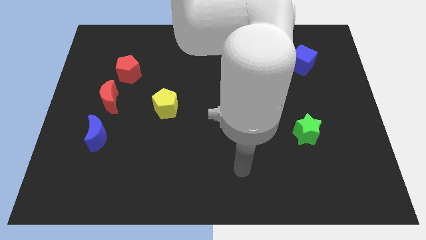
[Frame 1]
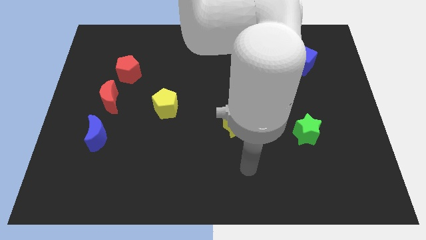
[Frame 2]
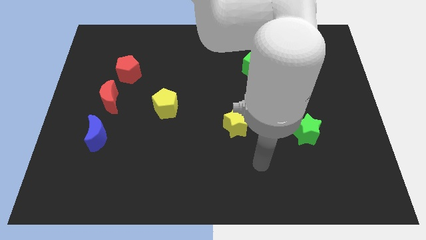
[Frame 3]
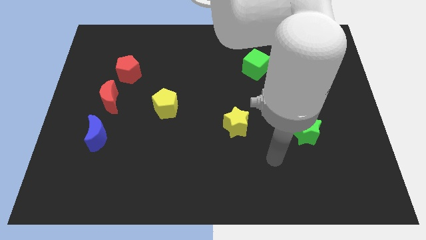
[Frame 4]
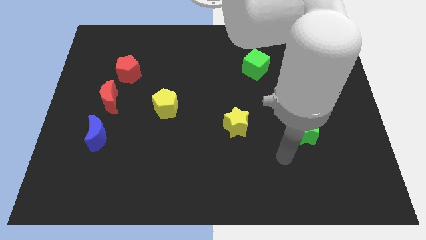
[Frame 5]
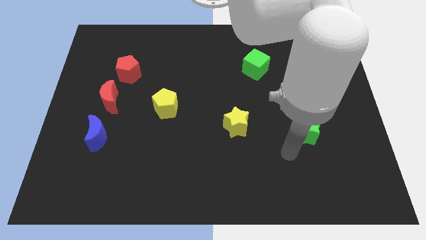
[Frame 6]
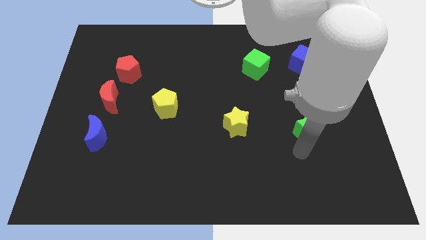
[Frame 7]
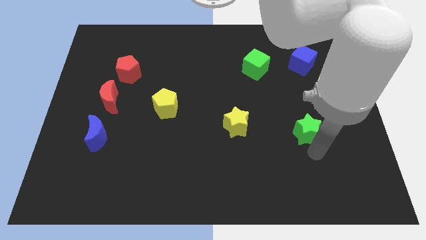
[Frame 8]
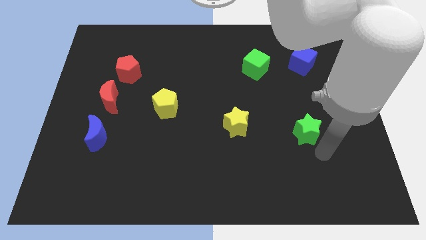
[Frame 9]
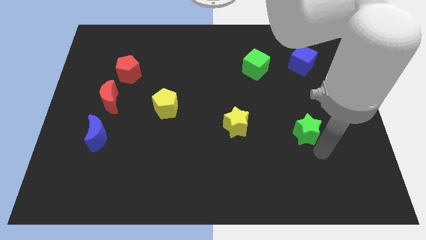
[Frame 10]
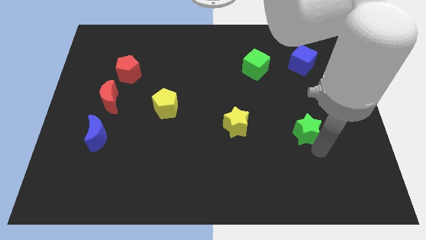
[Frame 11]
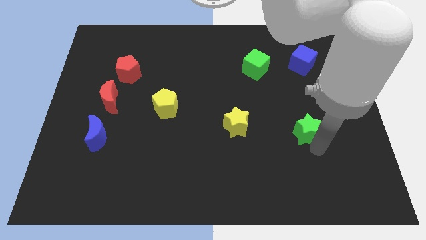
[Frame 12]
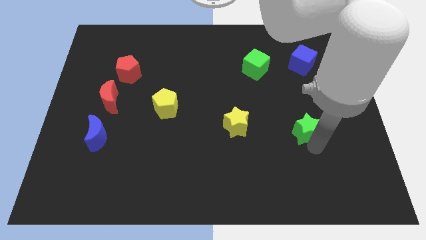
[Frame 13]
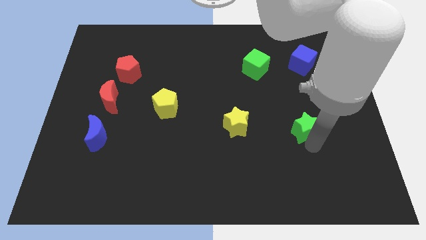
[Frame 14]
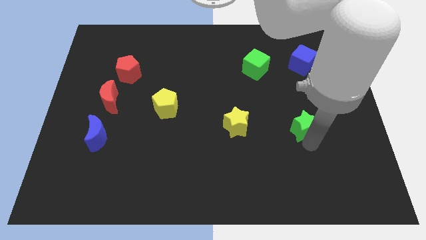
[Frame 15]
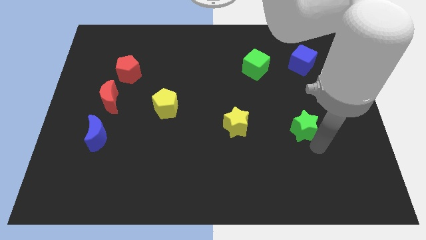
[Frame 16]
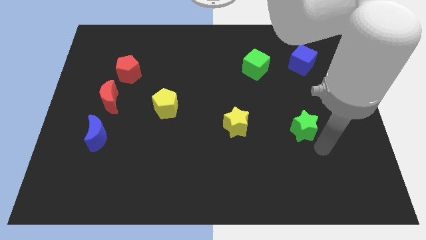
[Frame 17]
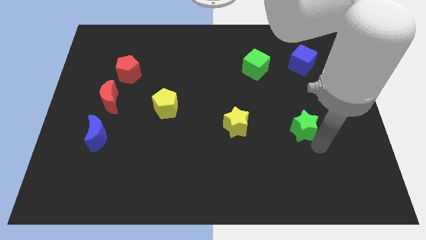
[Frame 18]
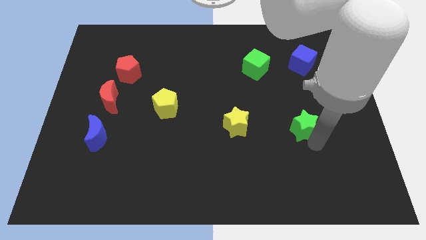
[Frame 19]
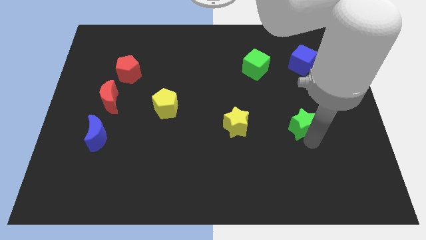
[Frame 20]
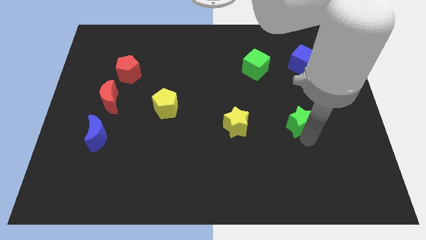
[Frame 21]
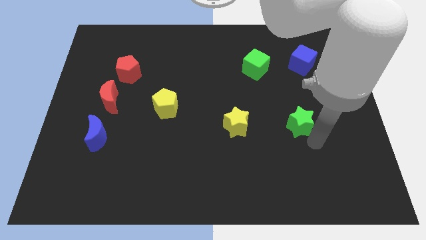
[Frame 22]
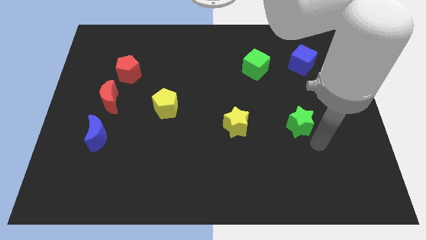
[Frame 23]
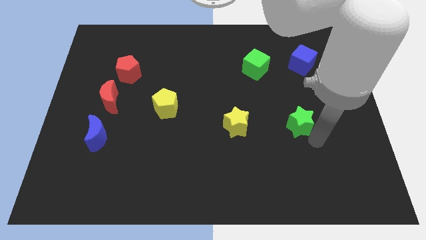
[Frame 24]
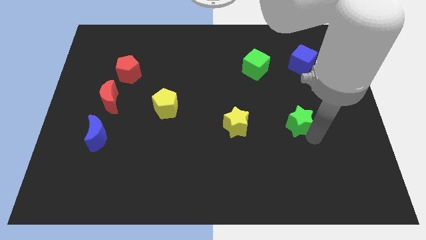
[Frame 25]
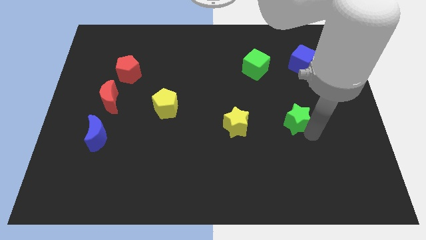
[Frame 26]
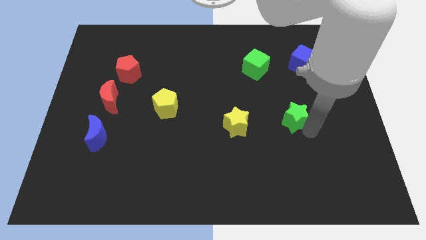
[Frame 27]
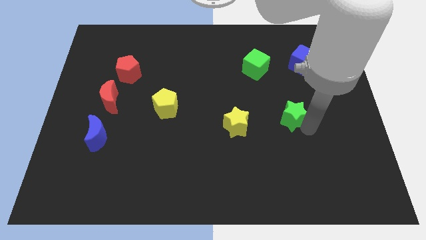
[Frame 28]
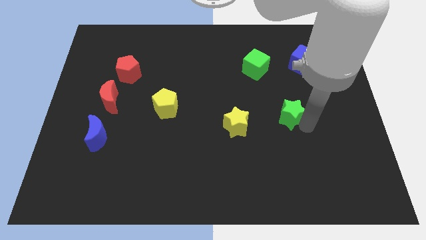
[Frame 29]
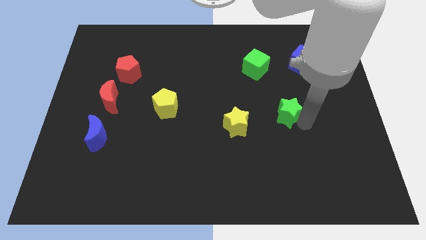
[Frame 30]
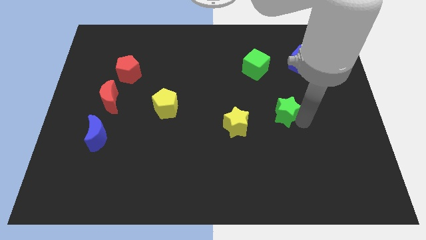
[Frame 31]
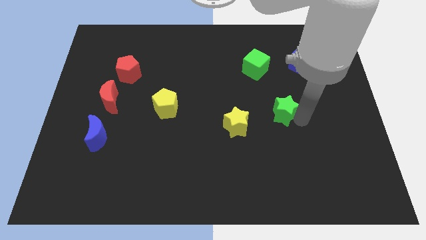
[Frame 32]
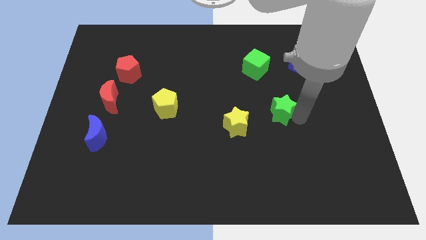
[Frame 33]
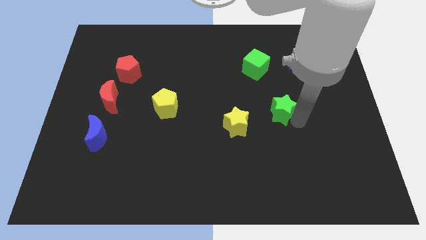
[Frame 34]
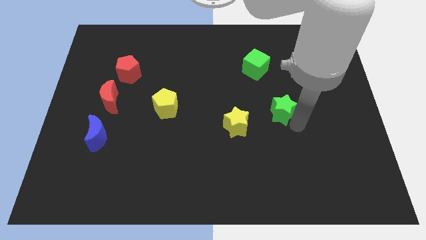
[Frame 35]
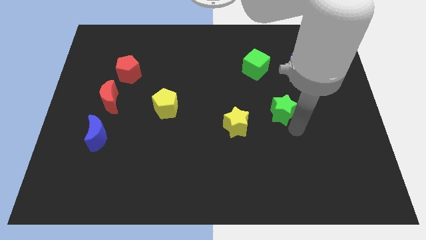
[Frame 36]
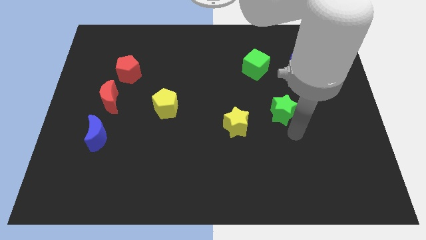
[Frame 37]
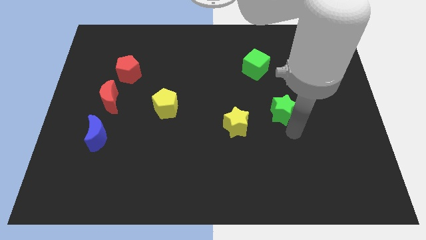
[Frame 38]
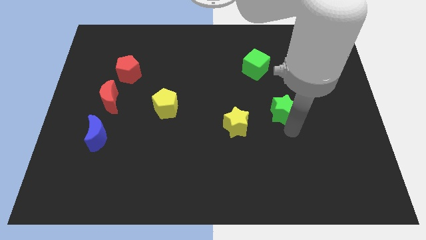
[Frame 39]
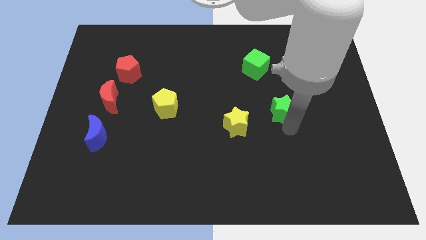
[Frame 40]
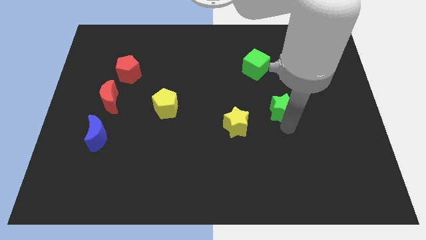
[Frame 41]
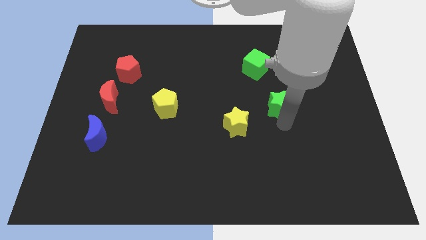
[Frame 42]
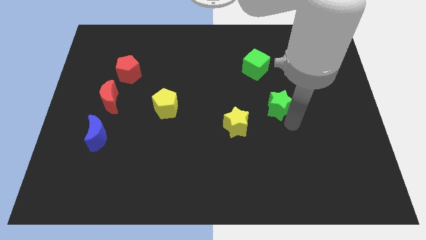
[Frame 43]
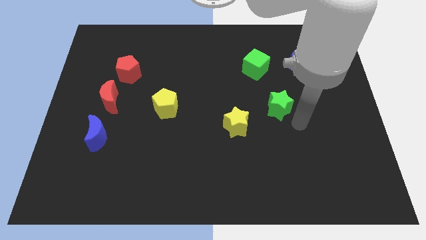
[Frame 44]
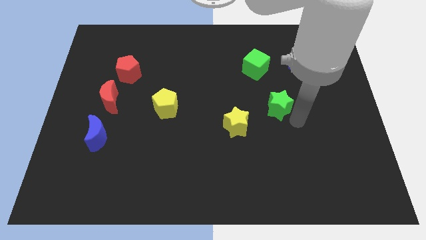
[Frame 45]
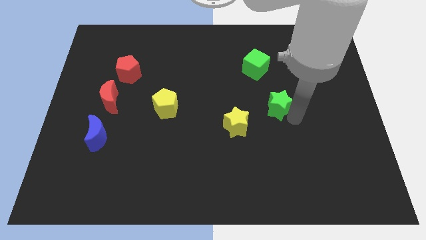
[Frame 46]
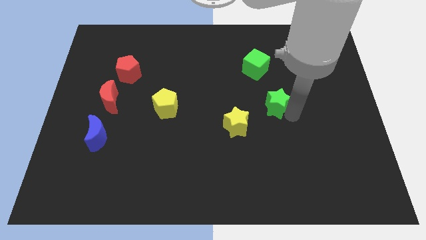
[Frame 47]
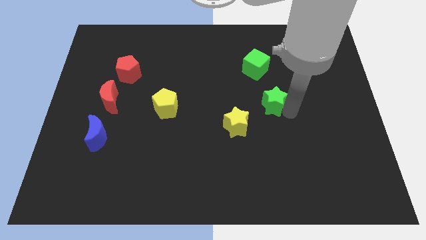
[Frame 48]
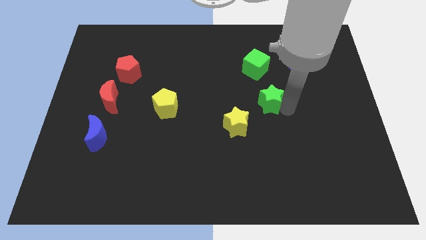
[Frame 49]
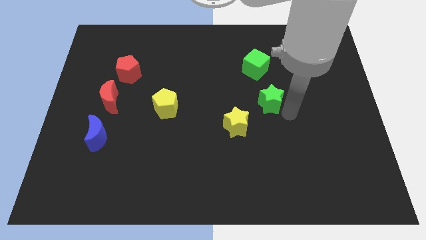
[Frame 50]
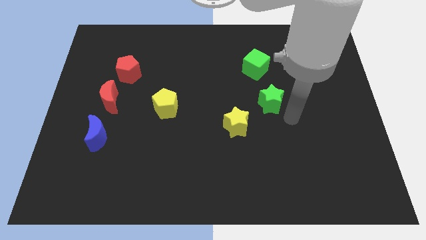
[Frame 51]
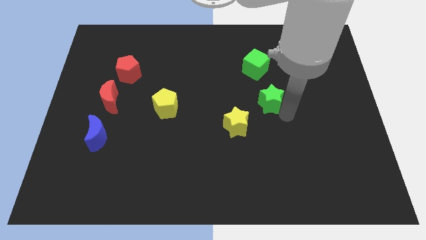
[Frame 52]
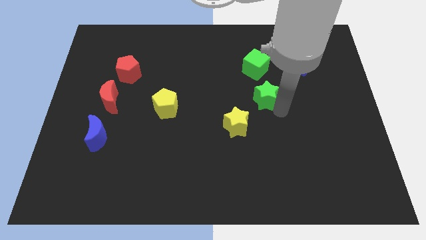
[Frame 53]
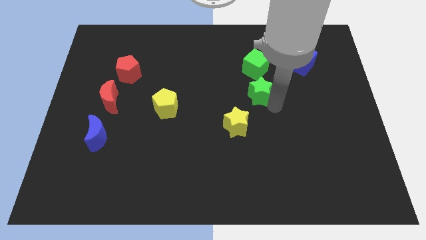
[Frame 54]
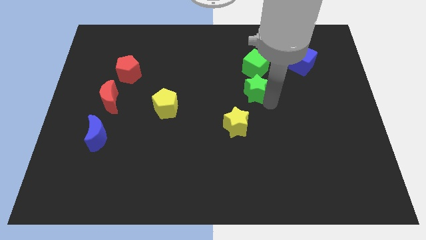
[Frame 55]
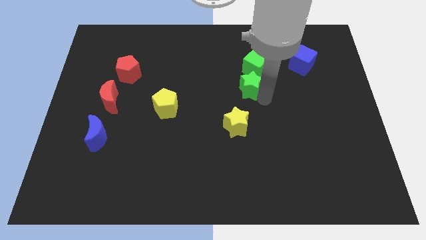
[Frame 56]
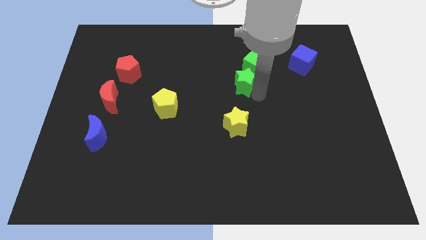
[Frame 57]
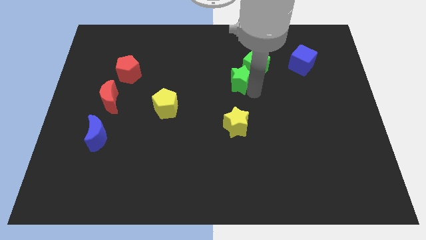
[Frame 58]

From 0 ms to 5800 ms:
slide the green star up and to the left diagonally

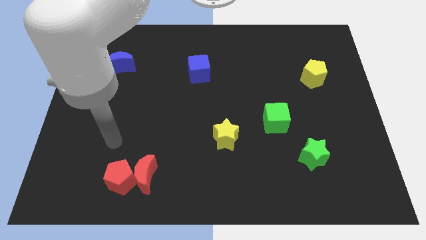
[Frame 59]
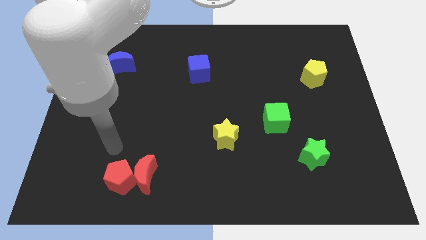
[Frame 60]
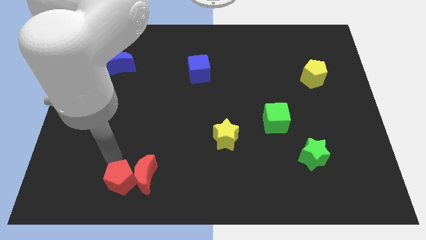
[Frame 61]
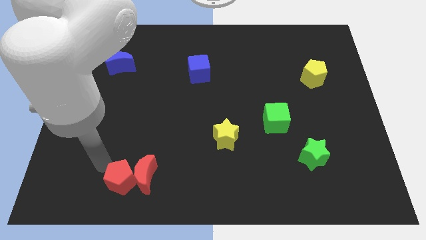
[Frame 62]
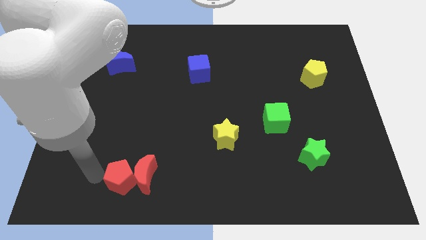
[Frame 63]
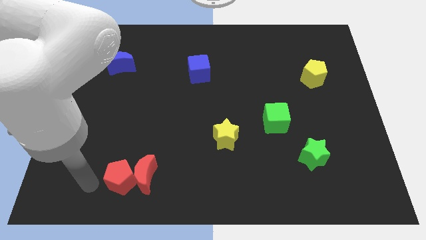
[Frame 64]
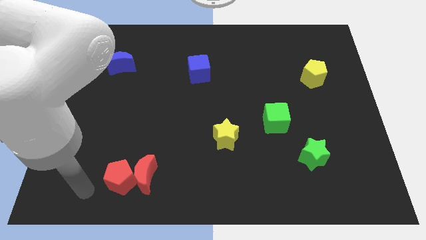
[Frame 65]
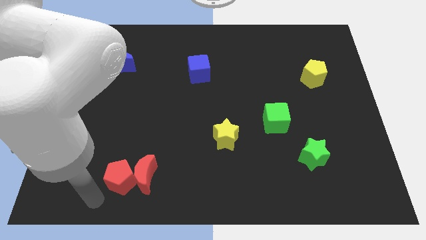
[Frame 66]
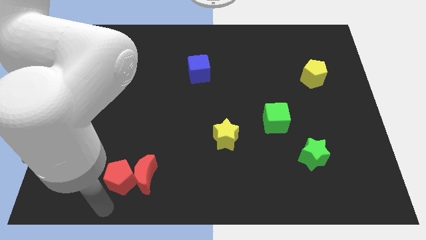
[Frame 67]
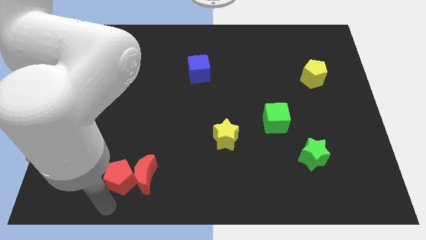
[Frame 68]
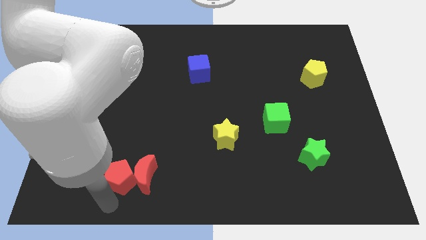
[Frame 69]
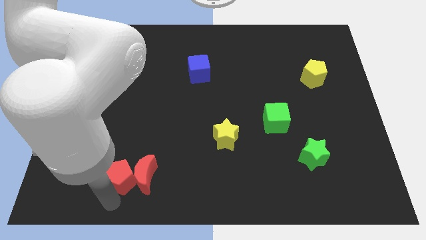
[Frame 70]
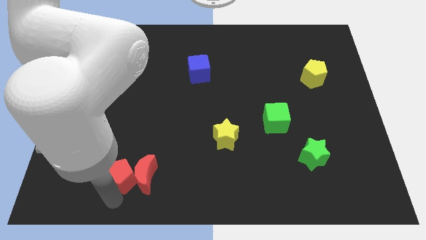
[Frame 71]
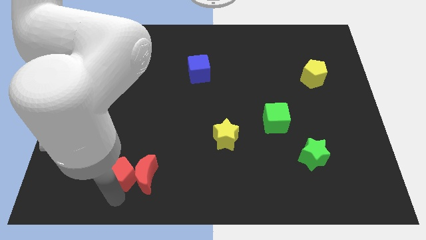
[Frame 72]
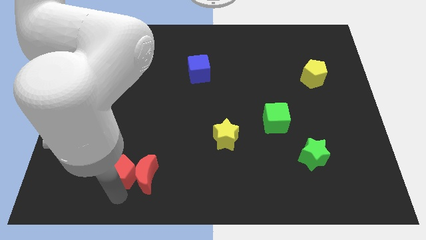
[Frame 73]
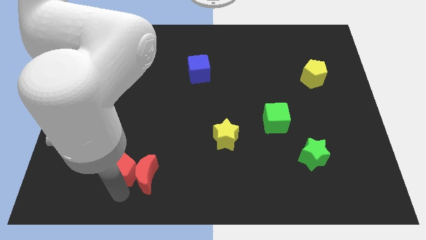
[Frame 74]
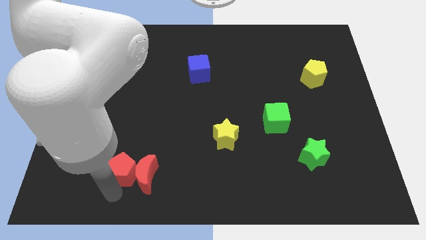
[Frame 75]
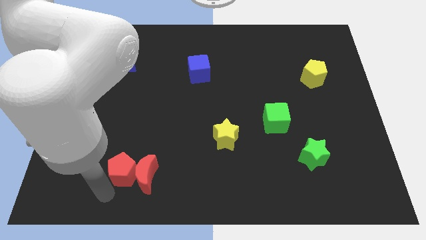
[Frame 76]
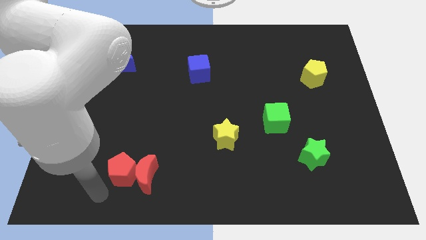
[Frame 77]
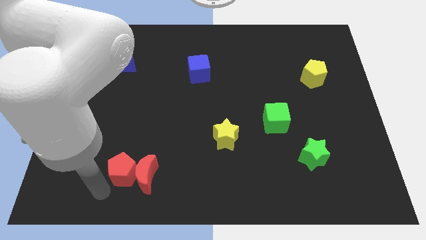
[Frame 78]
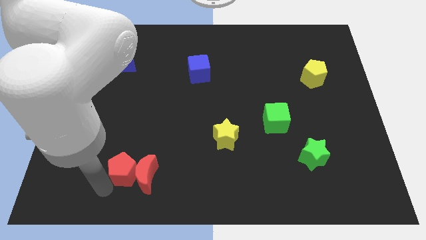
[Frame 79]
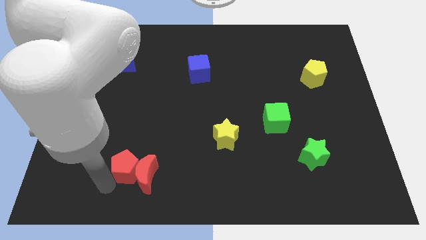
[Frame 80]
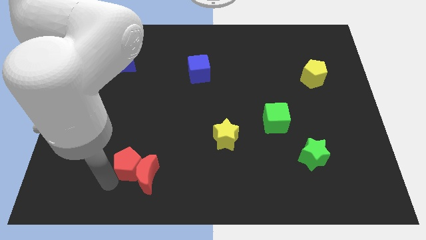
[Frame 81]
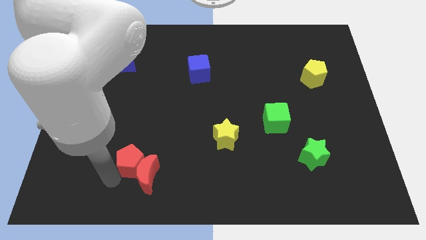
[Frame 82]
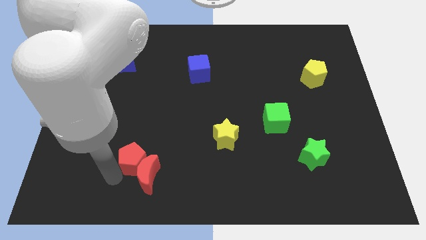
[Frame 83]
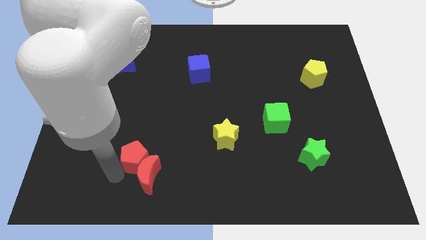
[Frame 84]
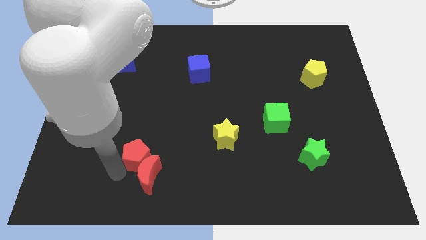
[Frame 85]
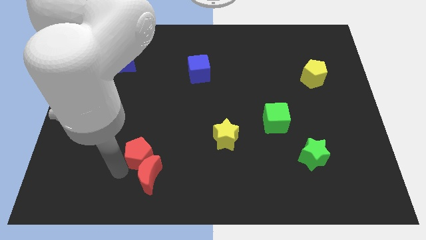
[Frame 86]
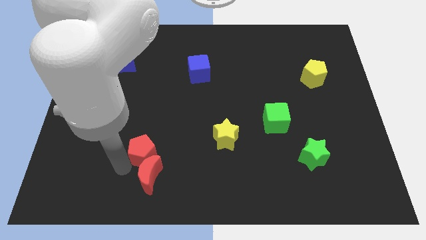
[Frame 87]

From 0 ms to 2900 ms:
slide the red pentagon diagonally upwards and to the right a little
